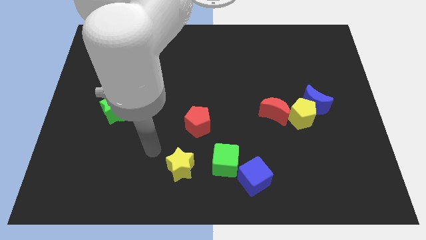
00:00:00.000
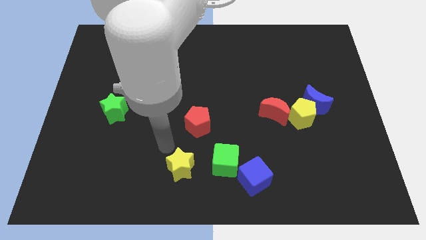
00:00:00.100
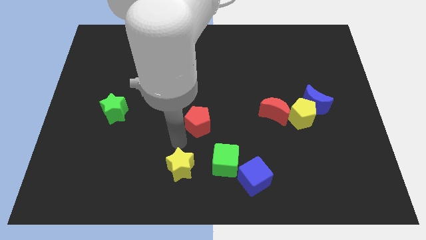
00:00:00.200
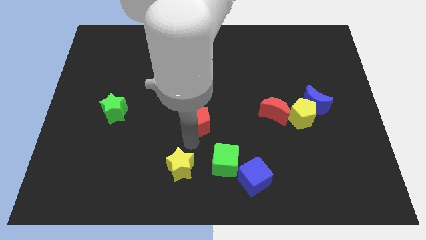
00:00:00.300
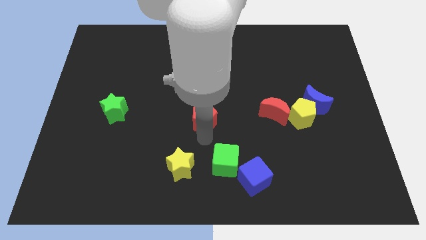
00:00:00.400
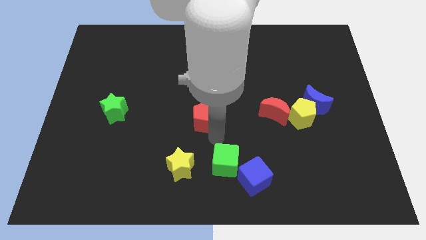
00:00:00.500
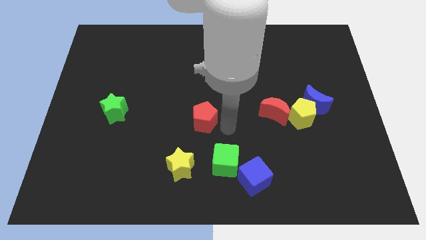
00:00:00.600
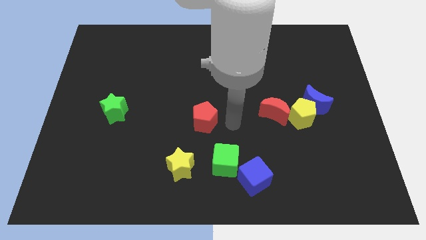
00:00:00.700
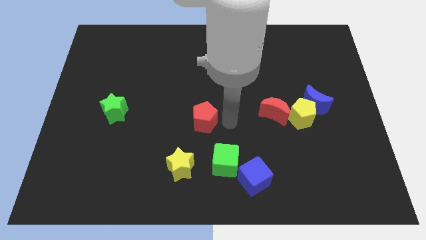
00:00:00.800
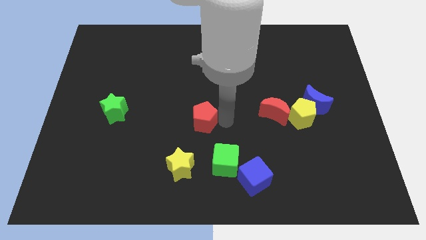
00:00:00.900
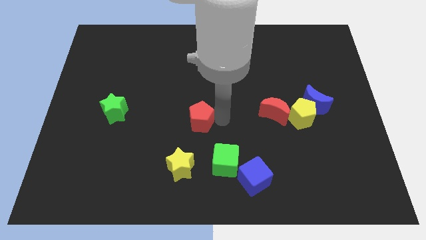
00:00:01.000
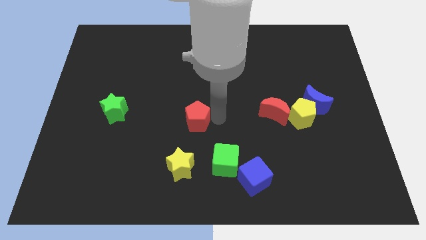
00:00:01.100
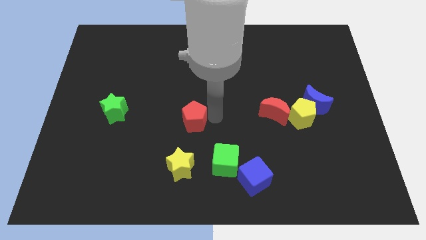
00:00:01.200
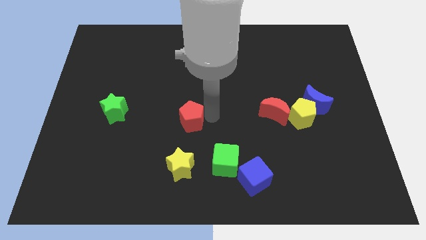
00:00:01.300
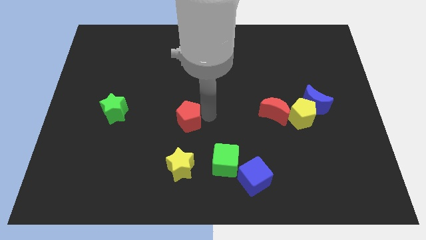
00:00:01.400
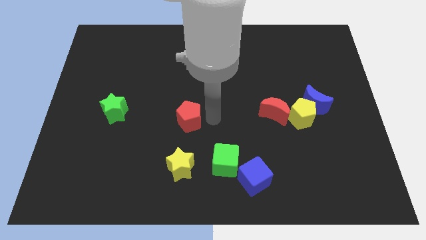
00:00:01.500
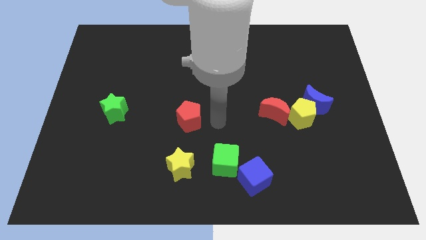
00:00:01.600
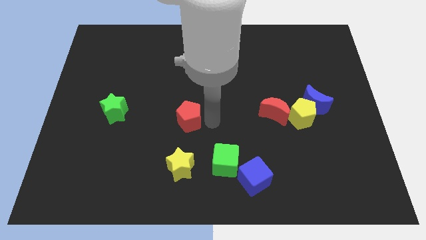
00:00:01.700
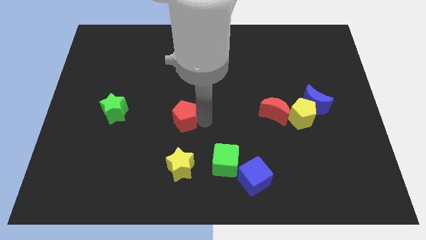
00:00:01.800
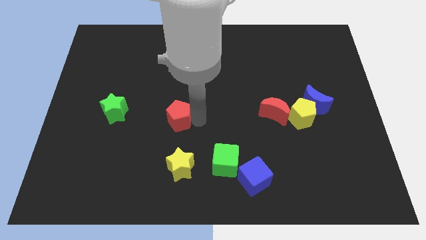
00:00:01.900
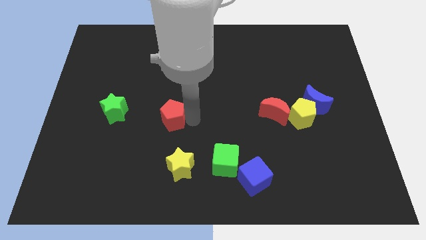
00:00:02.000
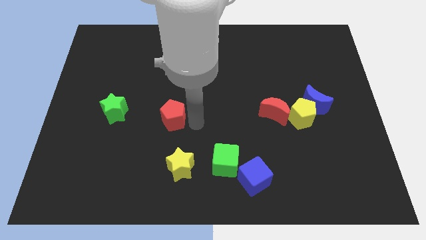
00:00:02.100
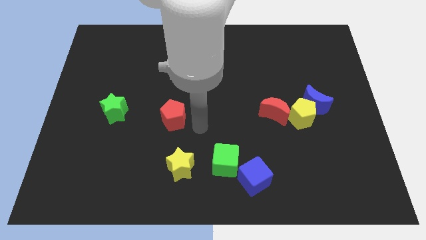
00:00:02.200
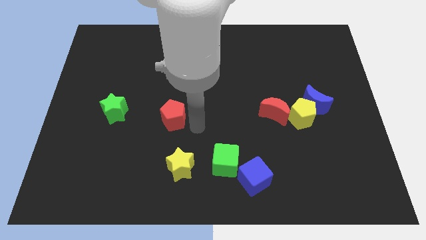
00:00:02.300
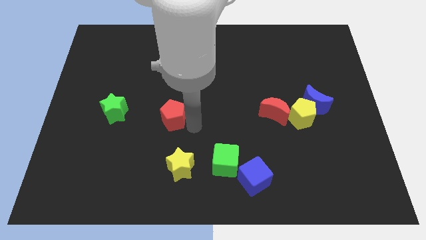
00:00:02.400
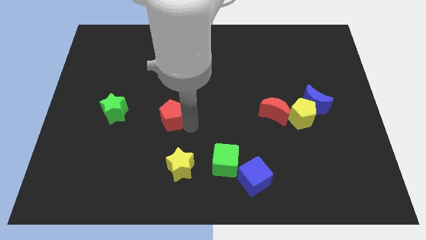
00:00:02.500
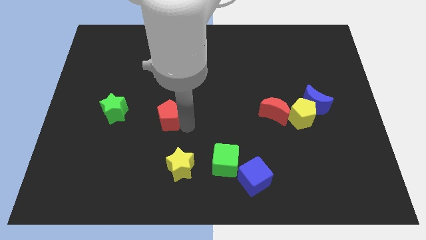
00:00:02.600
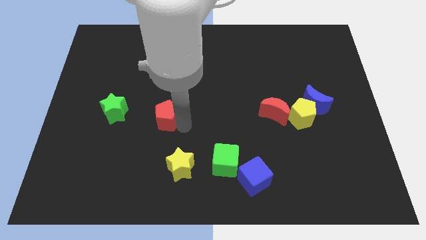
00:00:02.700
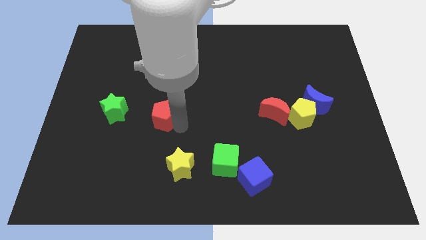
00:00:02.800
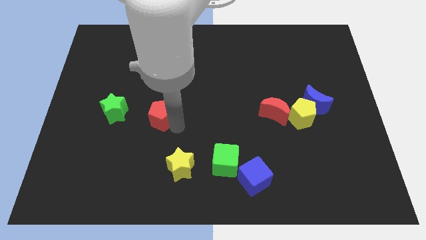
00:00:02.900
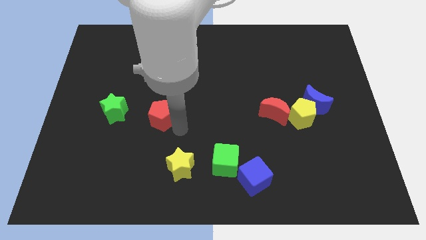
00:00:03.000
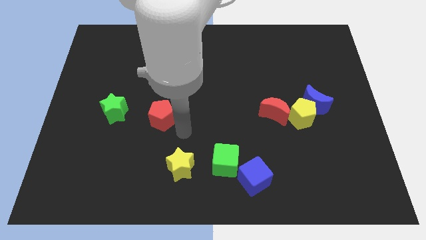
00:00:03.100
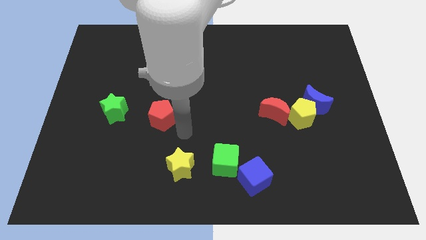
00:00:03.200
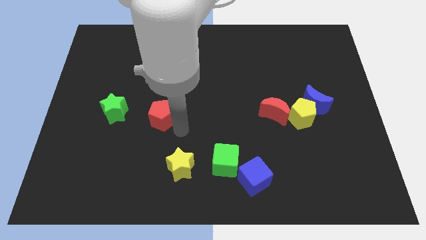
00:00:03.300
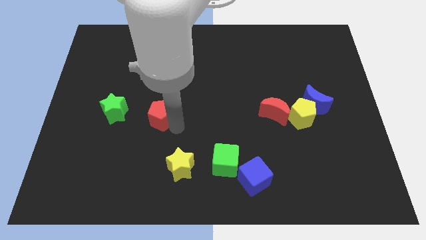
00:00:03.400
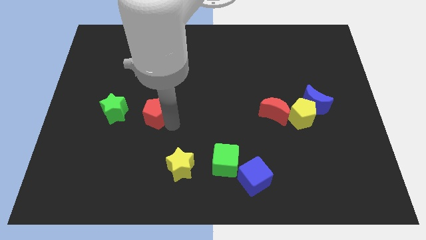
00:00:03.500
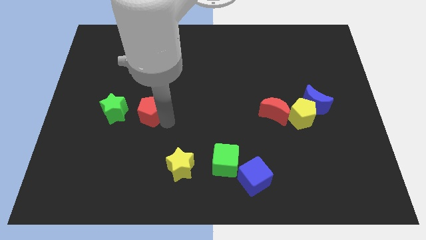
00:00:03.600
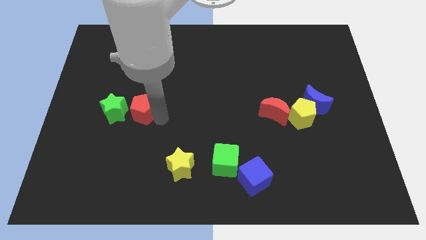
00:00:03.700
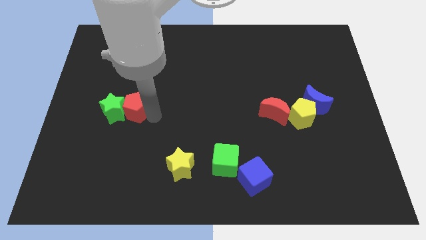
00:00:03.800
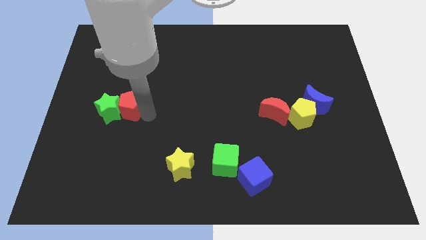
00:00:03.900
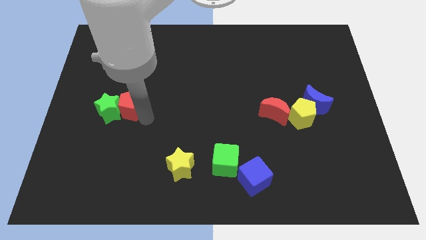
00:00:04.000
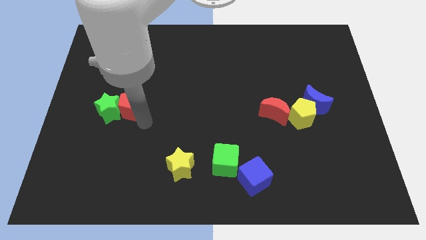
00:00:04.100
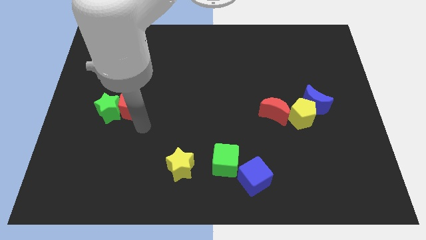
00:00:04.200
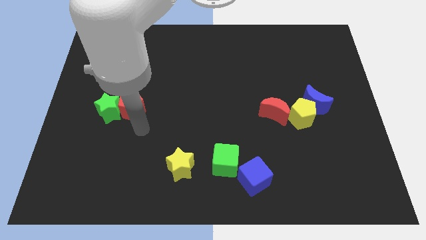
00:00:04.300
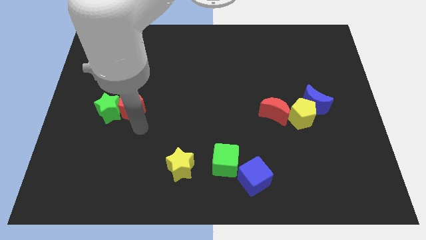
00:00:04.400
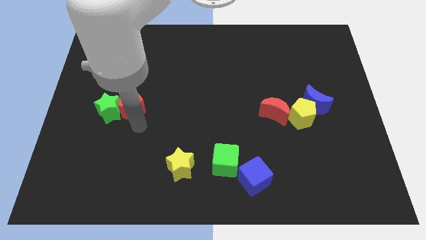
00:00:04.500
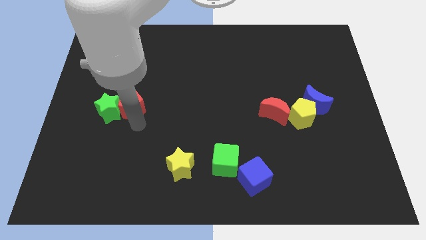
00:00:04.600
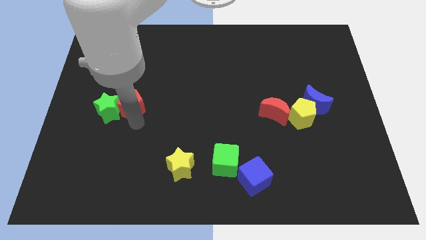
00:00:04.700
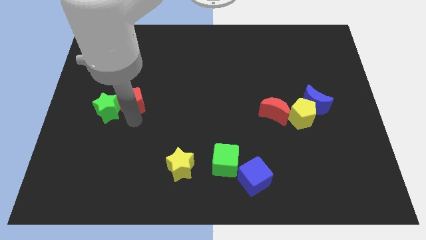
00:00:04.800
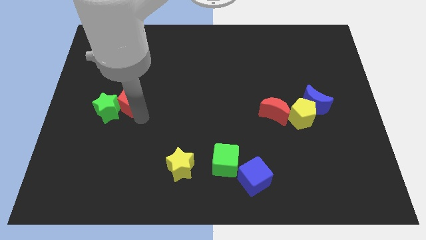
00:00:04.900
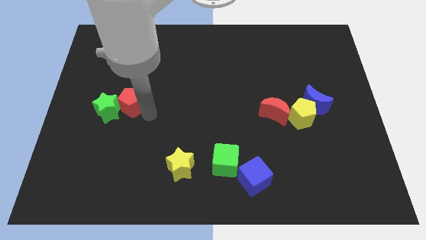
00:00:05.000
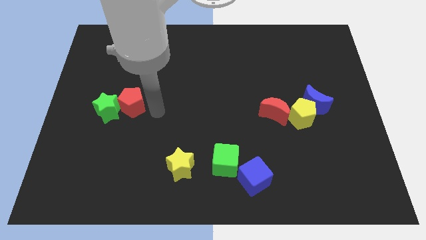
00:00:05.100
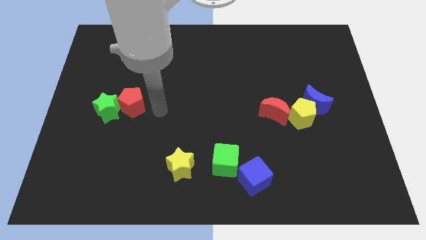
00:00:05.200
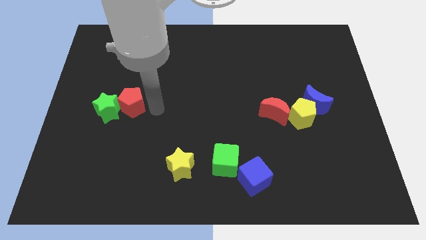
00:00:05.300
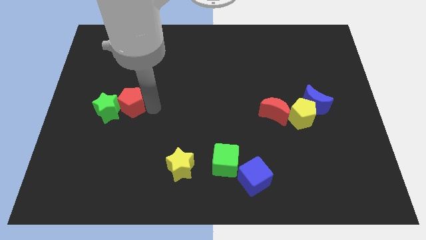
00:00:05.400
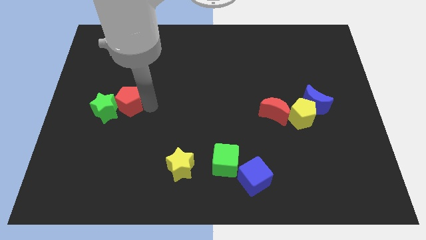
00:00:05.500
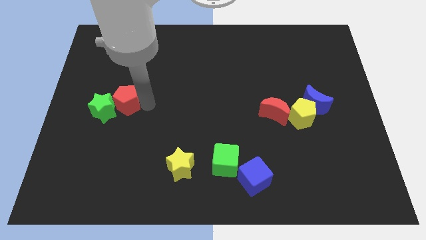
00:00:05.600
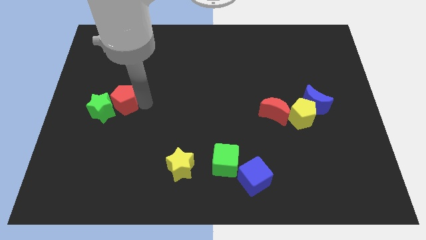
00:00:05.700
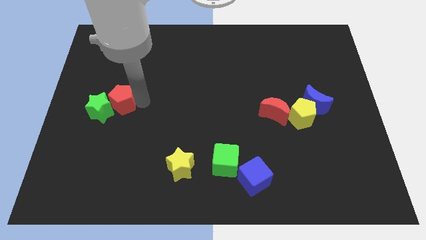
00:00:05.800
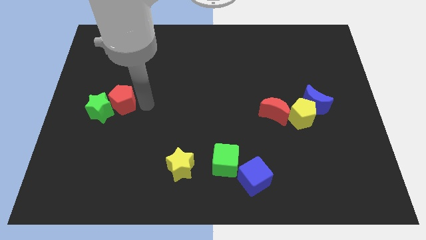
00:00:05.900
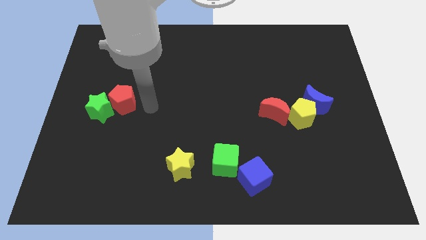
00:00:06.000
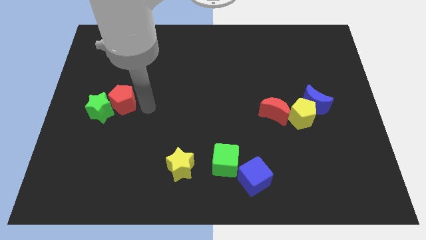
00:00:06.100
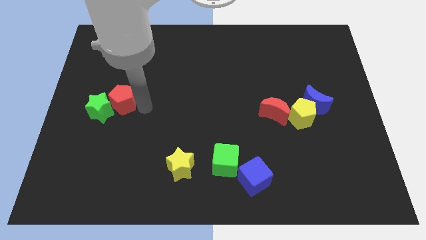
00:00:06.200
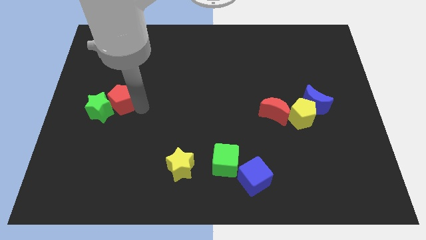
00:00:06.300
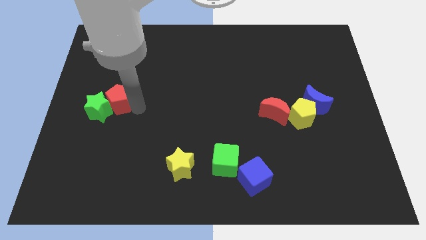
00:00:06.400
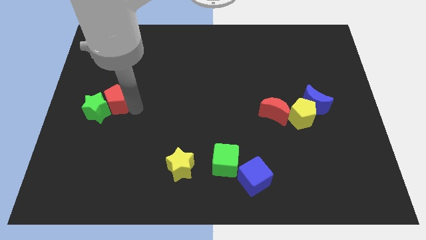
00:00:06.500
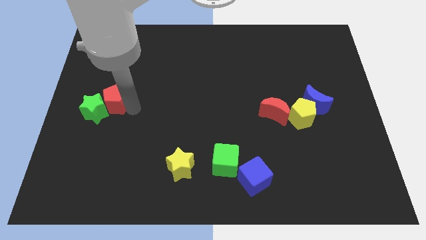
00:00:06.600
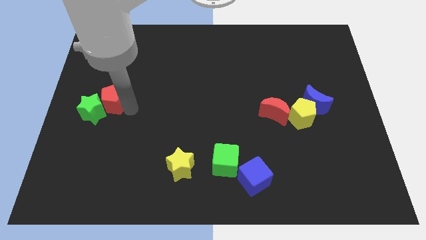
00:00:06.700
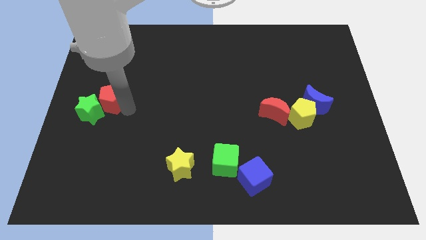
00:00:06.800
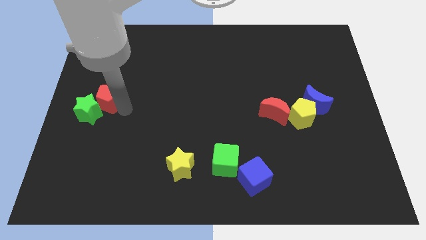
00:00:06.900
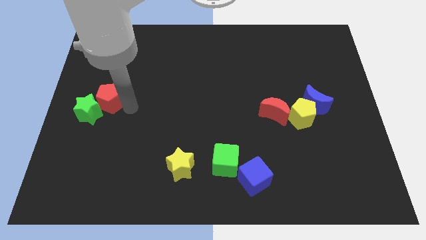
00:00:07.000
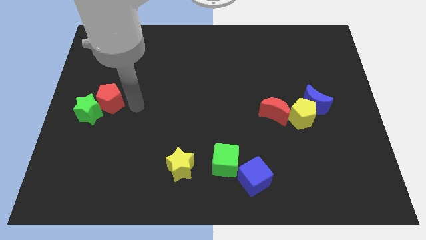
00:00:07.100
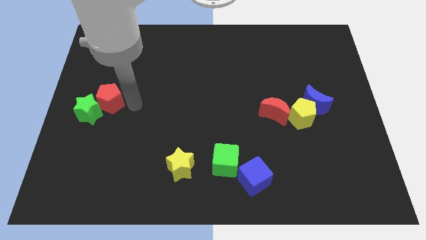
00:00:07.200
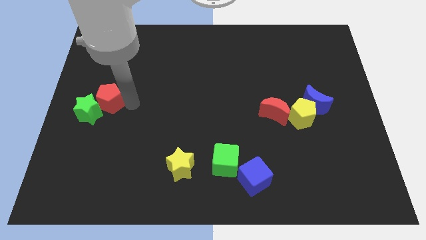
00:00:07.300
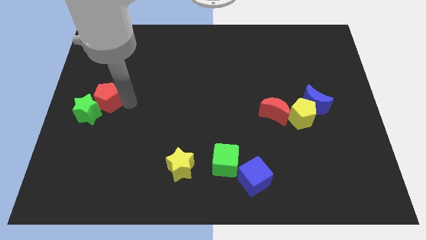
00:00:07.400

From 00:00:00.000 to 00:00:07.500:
move the red pentagon to the center left
